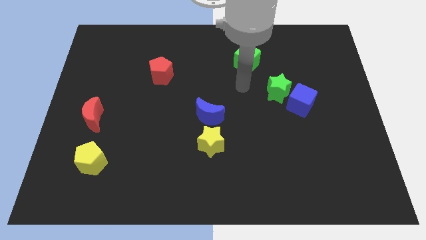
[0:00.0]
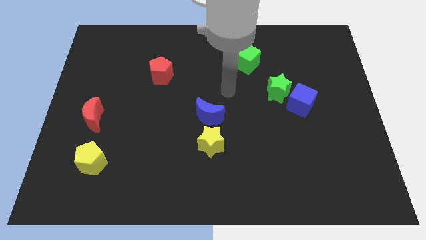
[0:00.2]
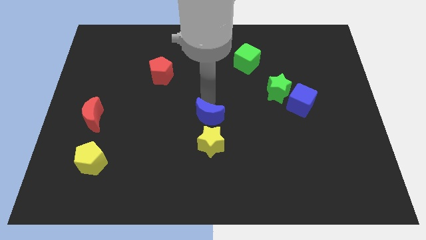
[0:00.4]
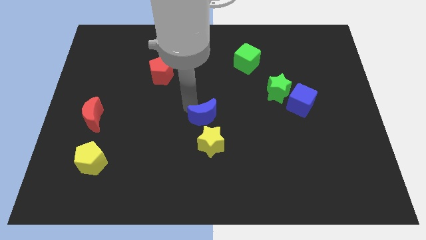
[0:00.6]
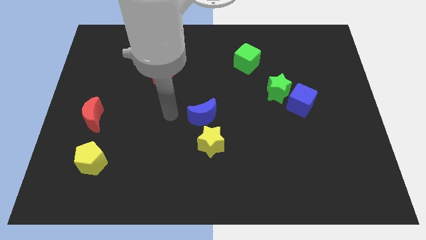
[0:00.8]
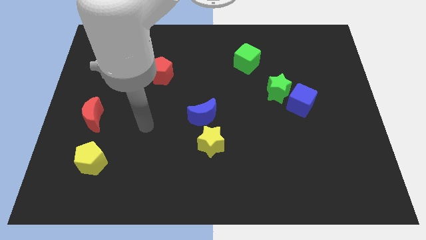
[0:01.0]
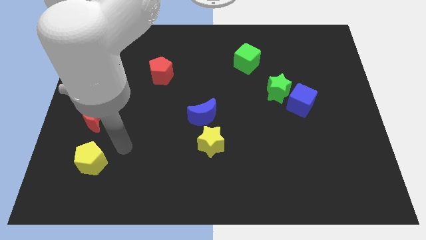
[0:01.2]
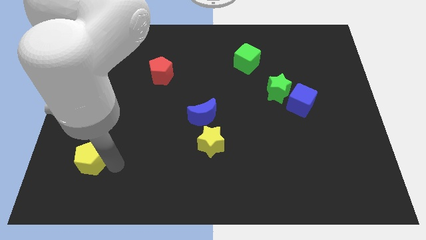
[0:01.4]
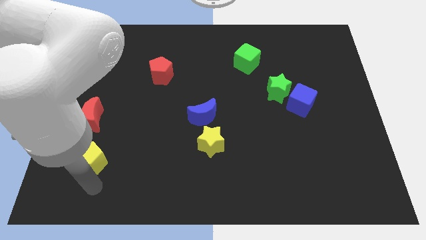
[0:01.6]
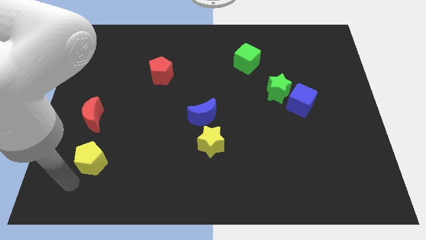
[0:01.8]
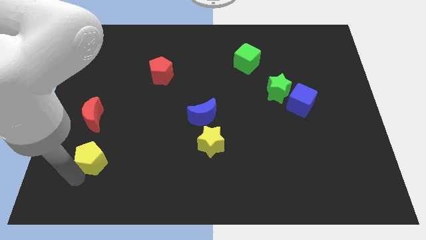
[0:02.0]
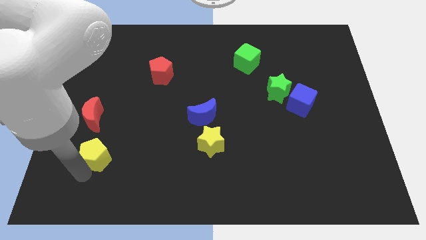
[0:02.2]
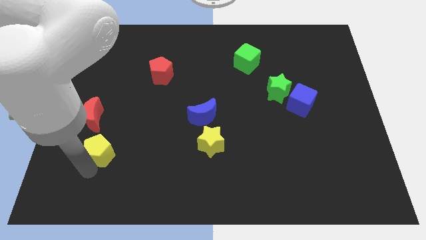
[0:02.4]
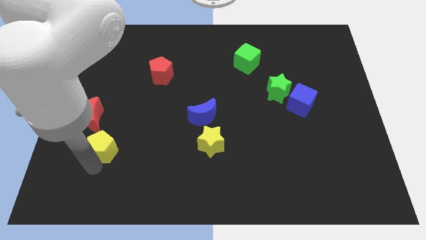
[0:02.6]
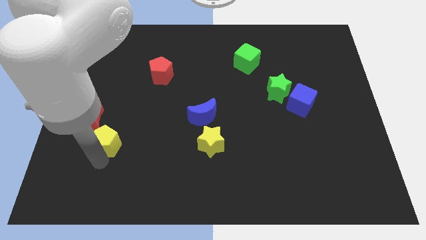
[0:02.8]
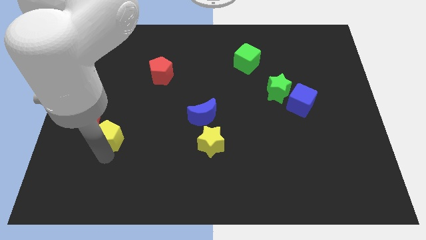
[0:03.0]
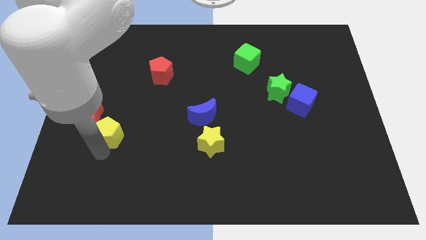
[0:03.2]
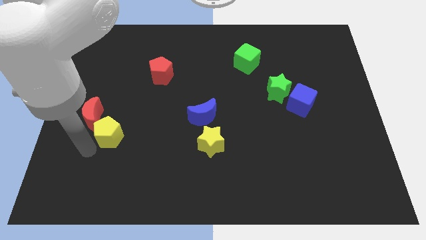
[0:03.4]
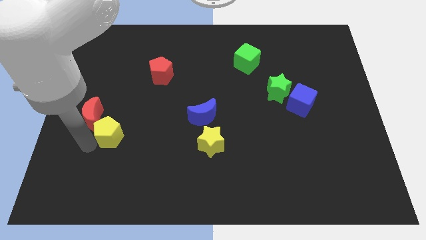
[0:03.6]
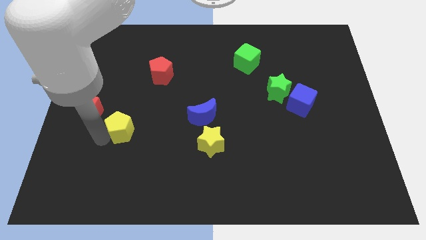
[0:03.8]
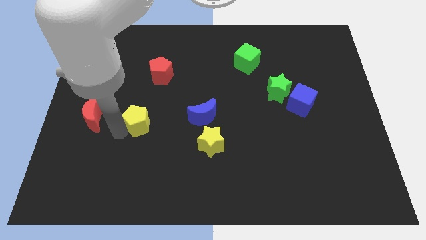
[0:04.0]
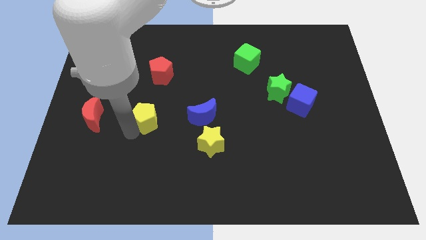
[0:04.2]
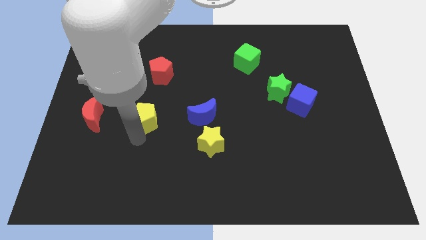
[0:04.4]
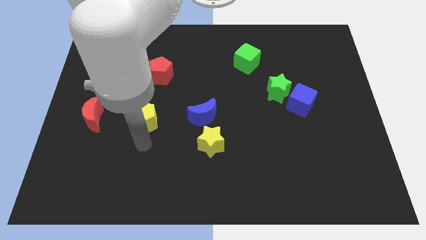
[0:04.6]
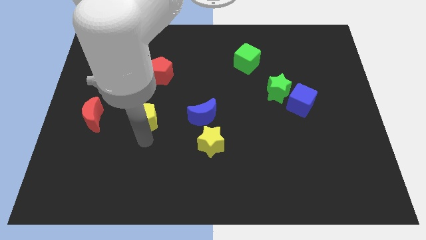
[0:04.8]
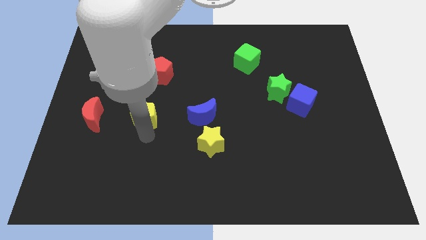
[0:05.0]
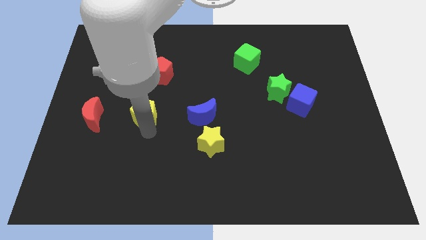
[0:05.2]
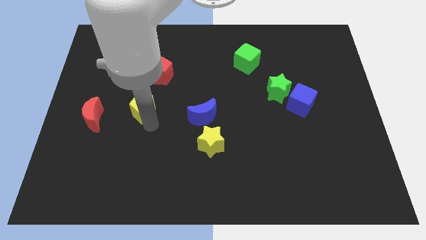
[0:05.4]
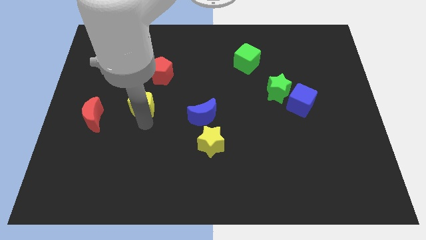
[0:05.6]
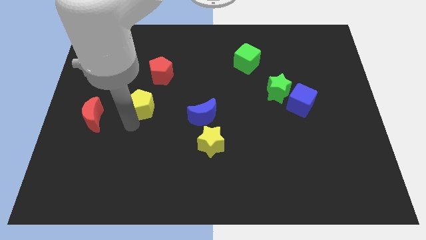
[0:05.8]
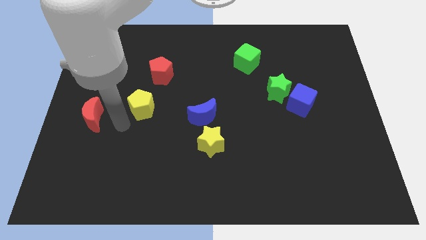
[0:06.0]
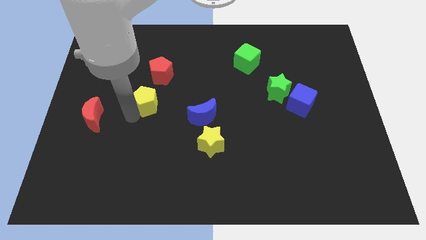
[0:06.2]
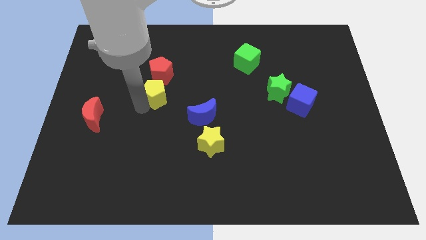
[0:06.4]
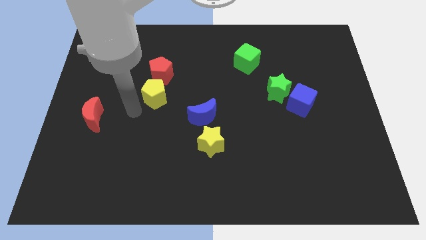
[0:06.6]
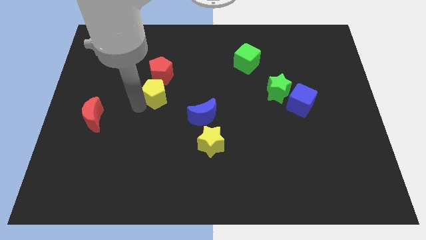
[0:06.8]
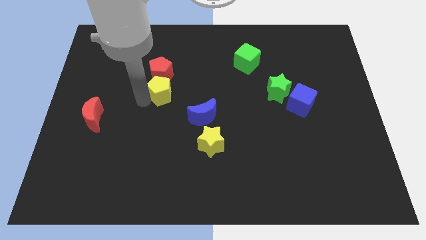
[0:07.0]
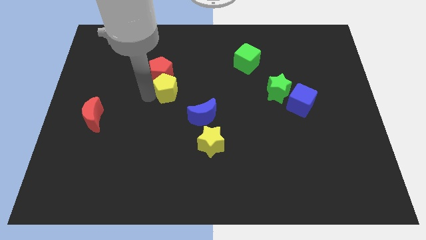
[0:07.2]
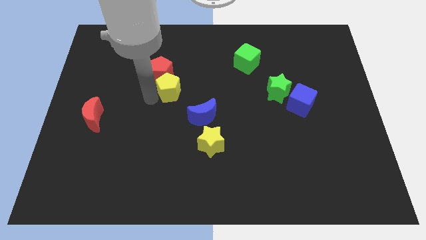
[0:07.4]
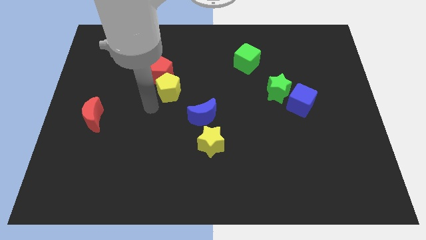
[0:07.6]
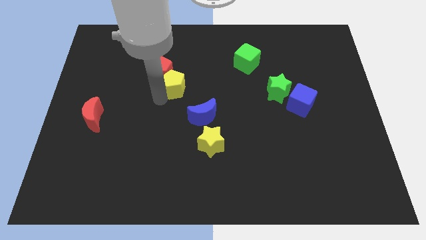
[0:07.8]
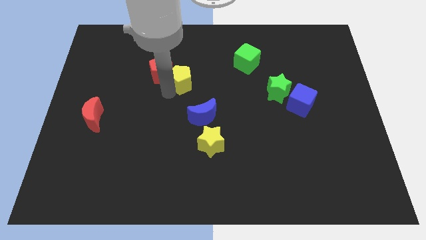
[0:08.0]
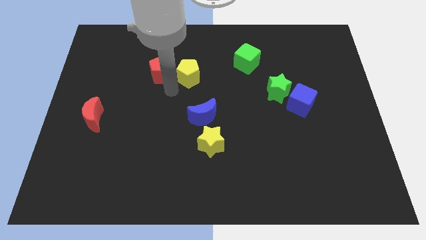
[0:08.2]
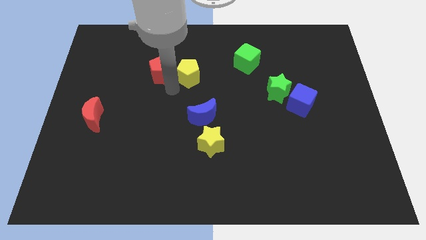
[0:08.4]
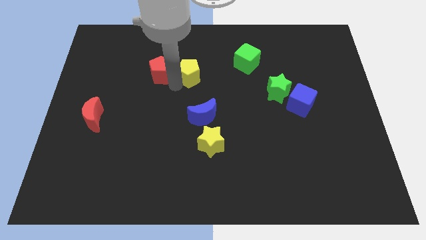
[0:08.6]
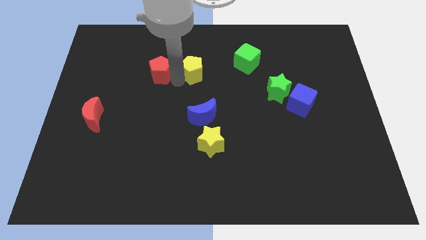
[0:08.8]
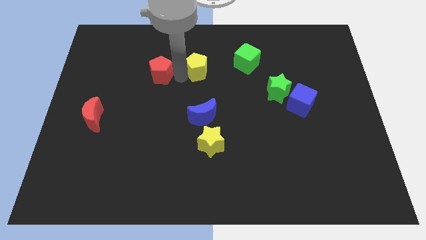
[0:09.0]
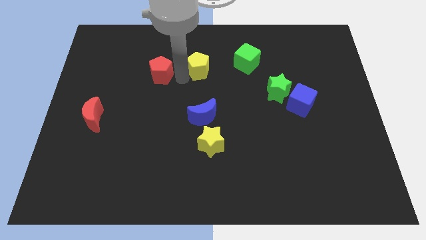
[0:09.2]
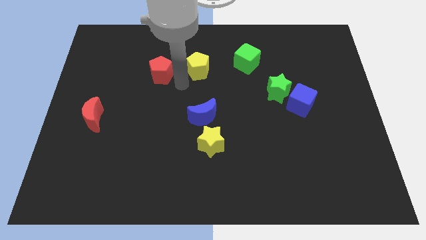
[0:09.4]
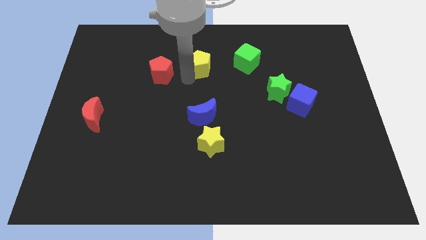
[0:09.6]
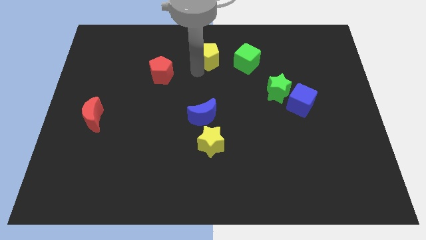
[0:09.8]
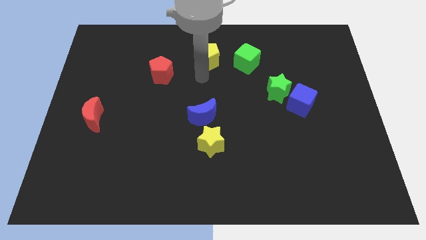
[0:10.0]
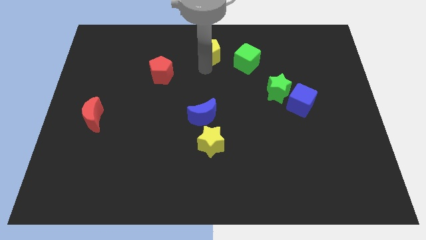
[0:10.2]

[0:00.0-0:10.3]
put the yellow pentagon to the towards your base

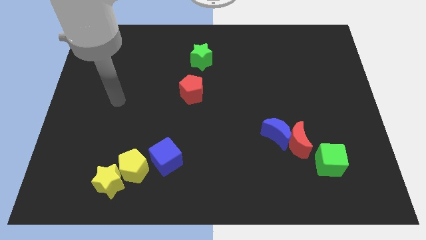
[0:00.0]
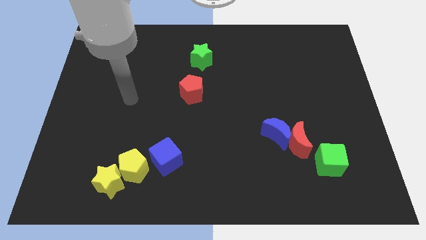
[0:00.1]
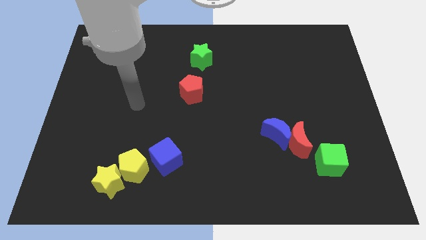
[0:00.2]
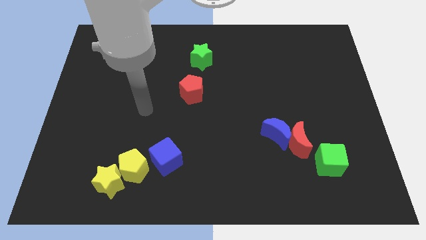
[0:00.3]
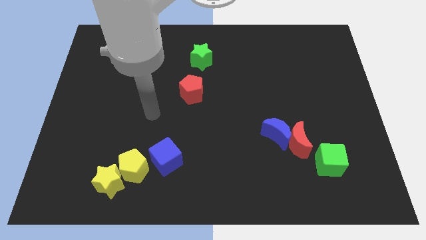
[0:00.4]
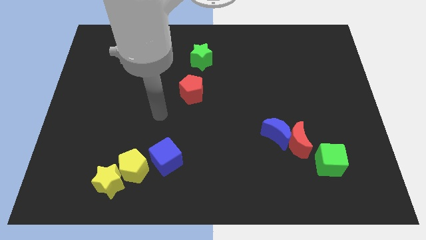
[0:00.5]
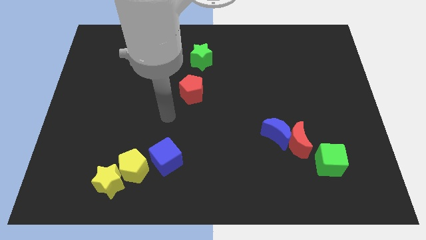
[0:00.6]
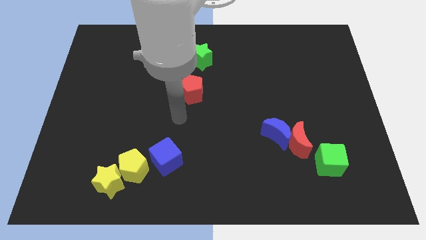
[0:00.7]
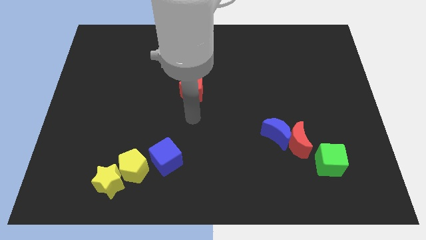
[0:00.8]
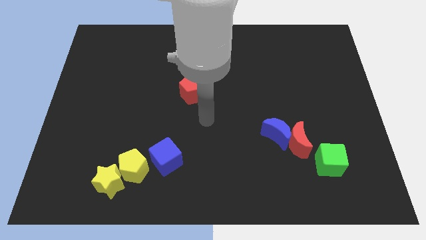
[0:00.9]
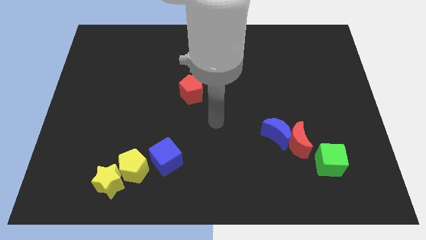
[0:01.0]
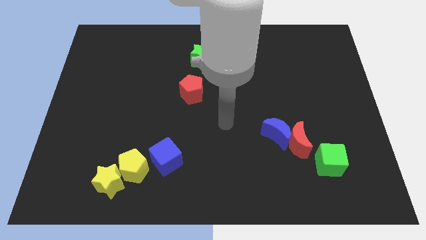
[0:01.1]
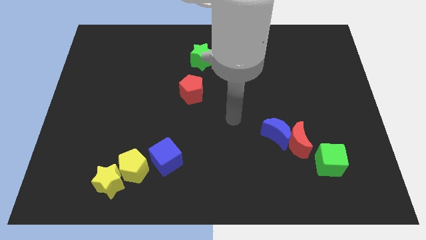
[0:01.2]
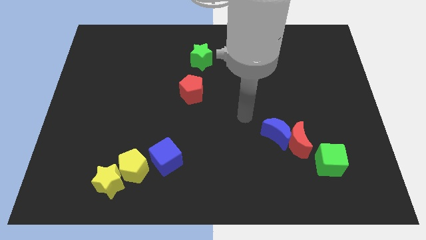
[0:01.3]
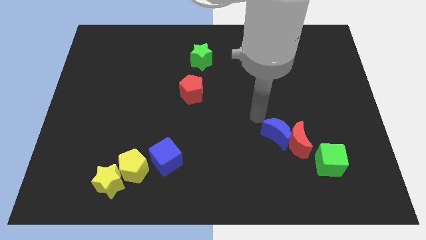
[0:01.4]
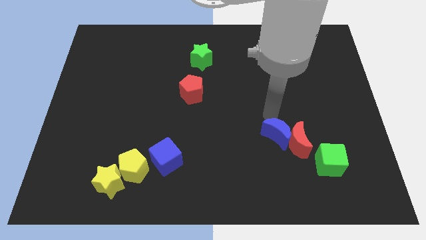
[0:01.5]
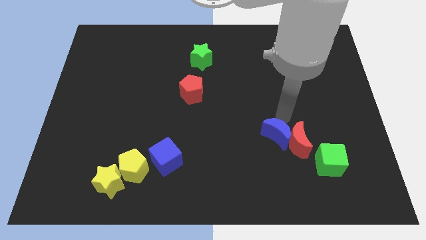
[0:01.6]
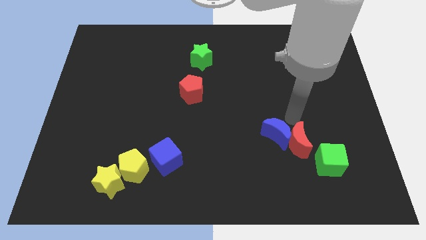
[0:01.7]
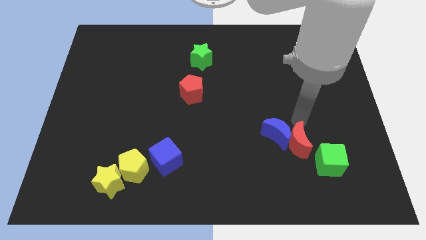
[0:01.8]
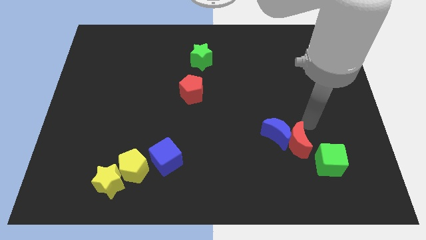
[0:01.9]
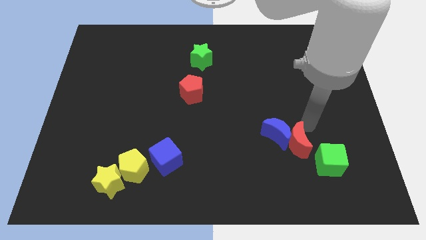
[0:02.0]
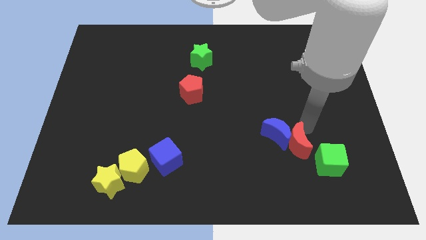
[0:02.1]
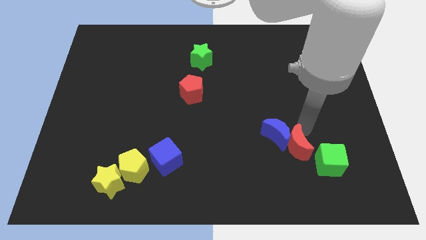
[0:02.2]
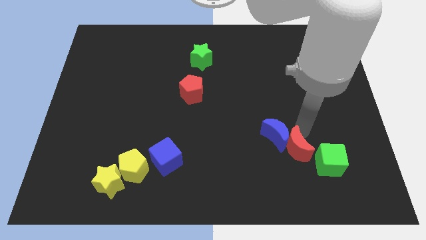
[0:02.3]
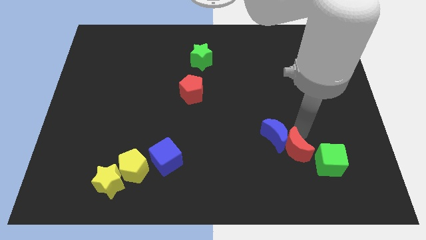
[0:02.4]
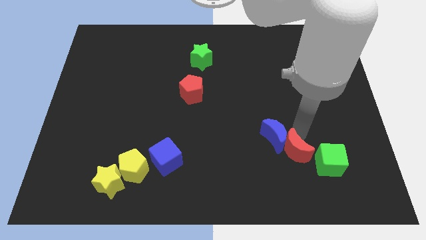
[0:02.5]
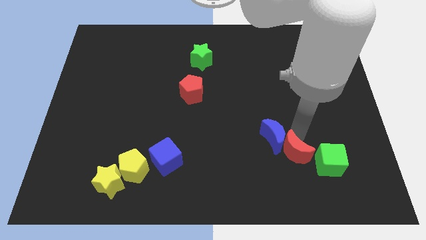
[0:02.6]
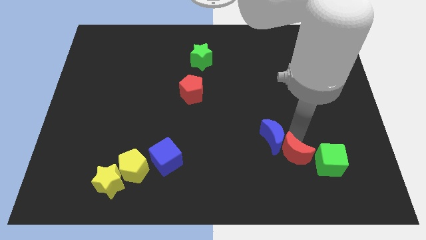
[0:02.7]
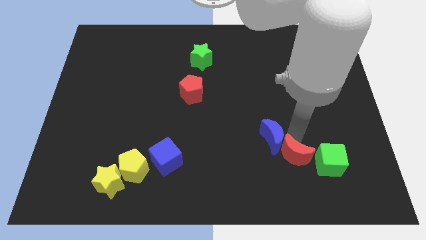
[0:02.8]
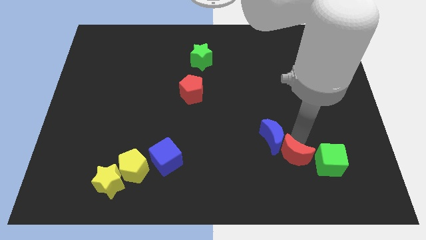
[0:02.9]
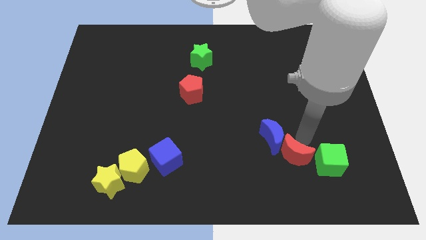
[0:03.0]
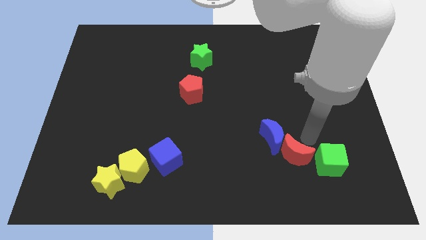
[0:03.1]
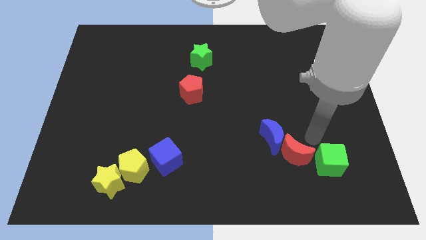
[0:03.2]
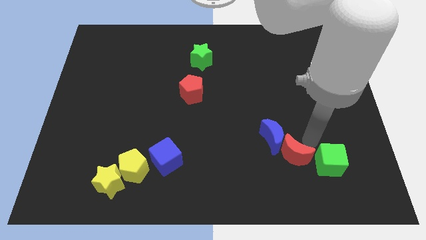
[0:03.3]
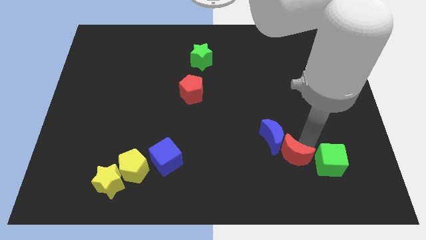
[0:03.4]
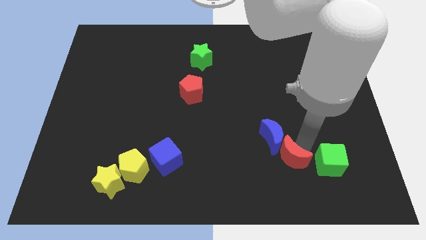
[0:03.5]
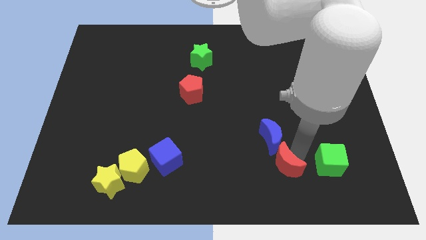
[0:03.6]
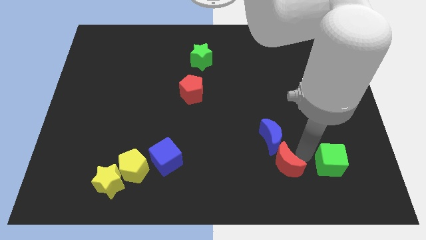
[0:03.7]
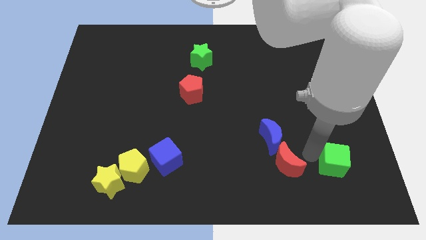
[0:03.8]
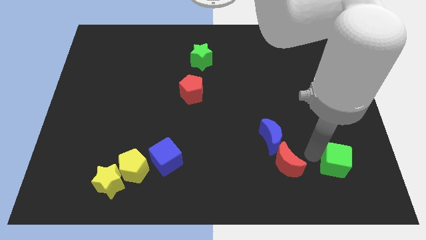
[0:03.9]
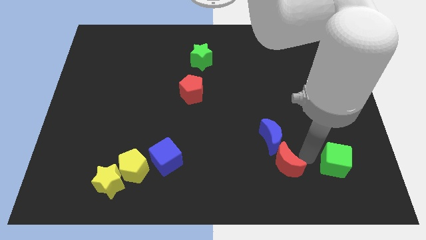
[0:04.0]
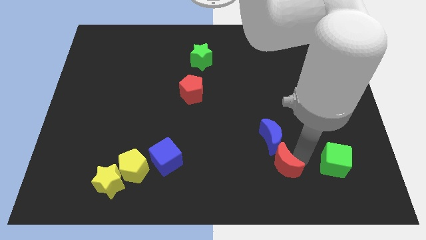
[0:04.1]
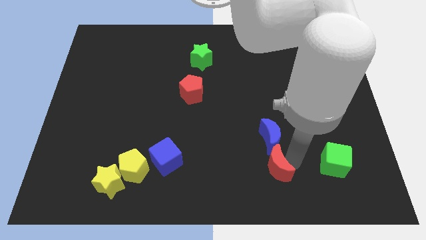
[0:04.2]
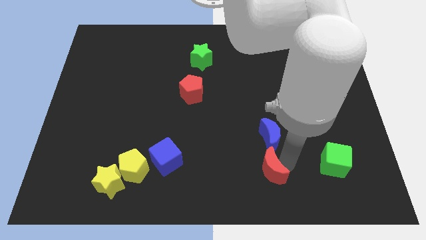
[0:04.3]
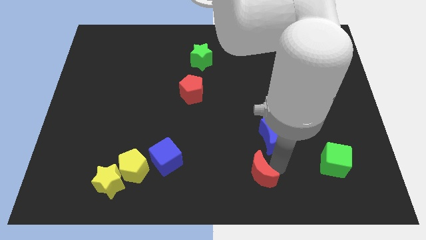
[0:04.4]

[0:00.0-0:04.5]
slide the red moon to the bottom side
